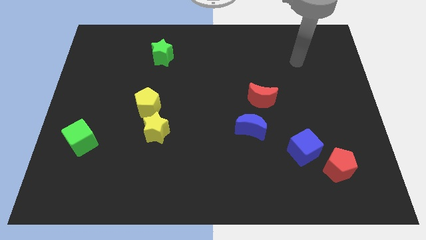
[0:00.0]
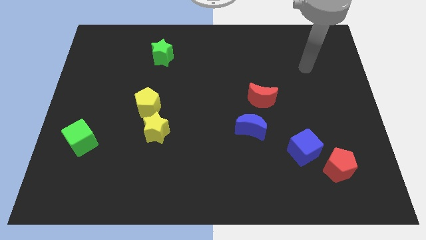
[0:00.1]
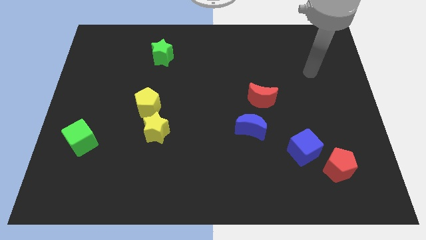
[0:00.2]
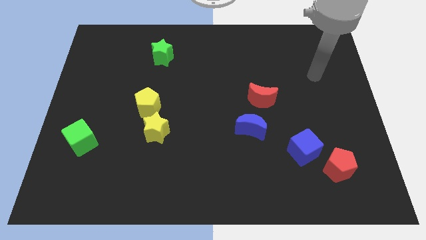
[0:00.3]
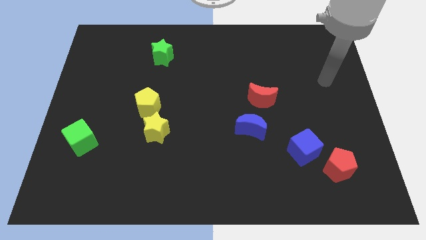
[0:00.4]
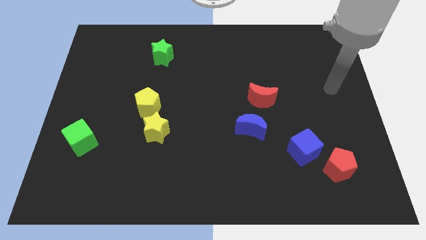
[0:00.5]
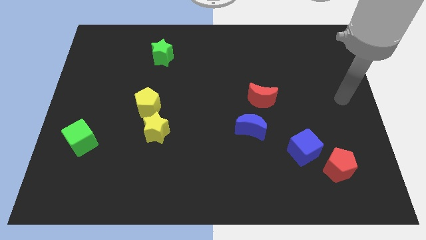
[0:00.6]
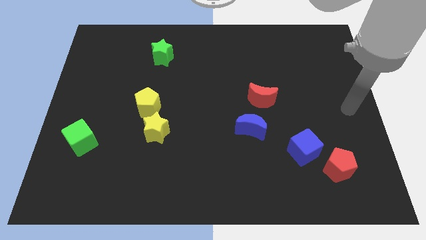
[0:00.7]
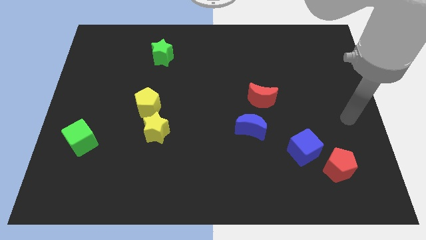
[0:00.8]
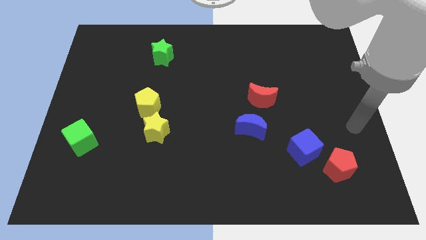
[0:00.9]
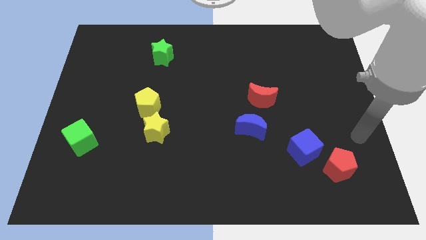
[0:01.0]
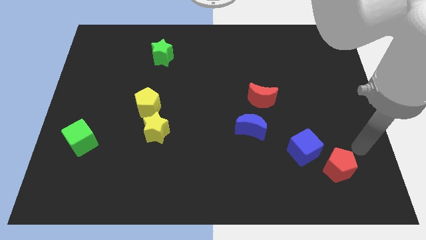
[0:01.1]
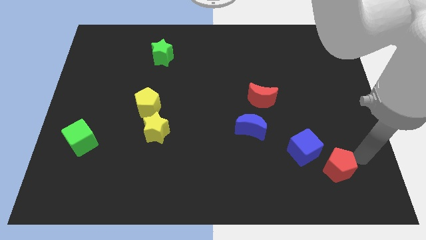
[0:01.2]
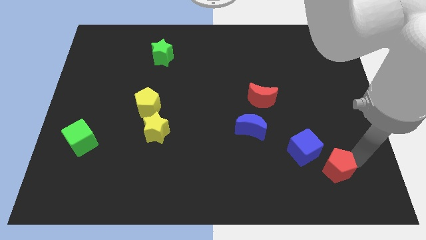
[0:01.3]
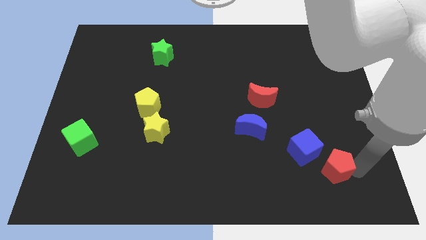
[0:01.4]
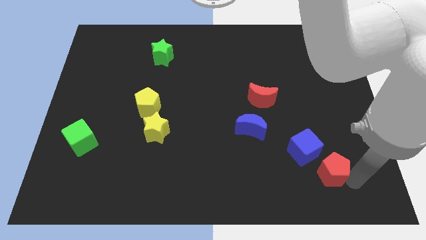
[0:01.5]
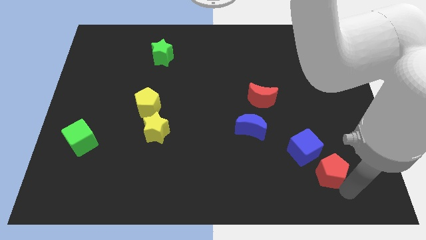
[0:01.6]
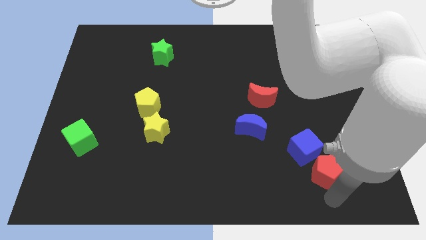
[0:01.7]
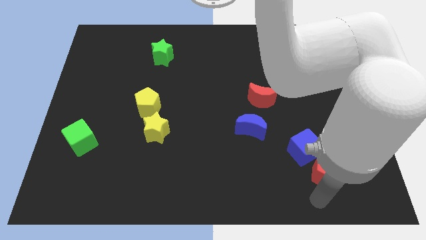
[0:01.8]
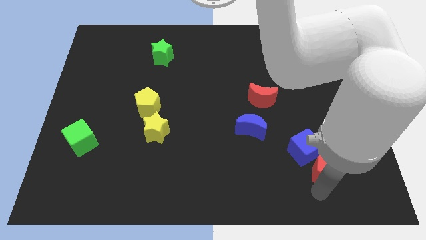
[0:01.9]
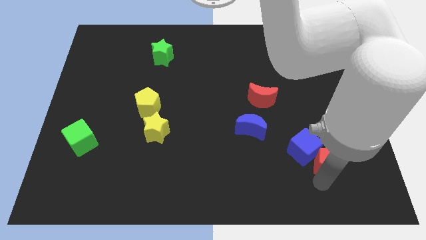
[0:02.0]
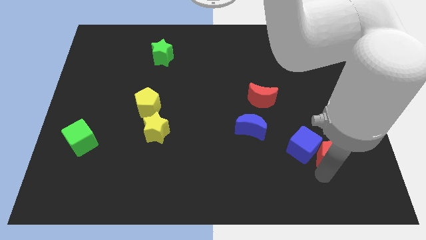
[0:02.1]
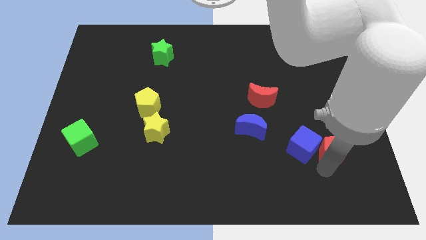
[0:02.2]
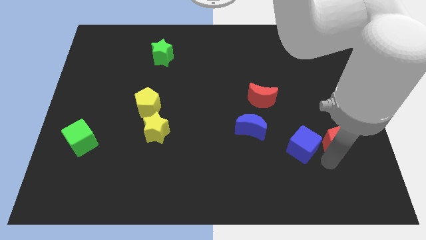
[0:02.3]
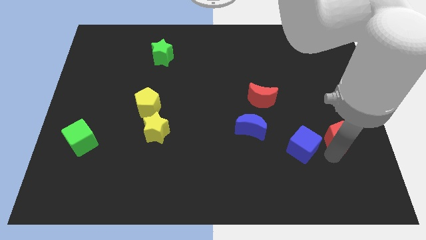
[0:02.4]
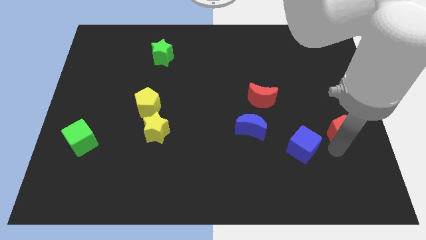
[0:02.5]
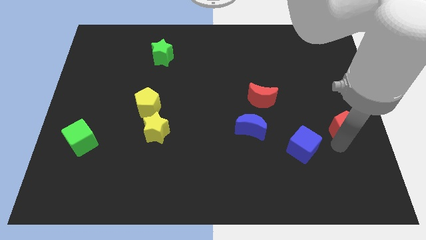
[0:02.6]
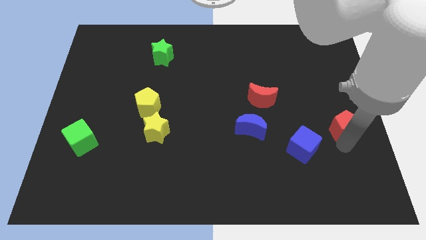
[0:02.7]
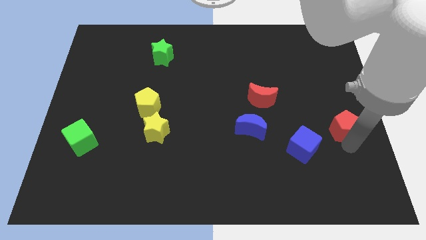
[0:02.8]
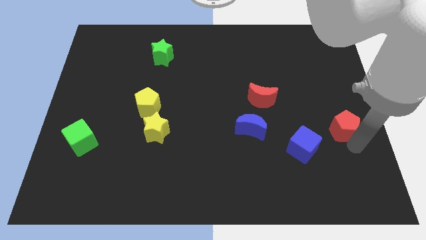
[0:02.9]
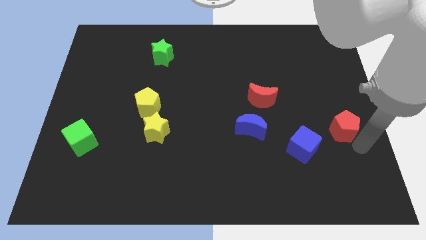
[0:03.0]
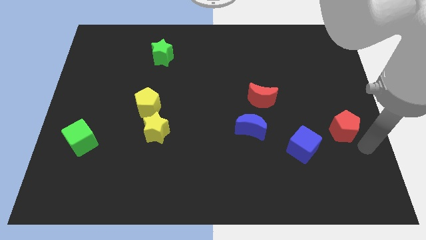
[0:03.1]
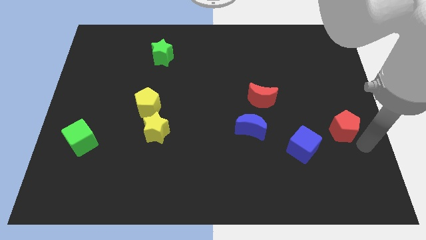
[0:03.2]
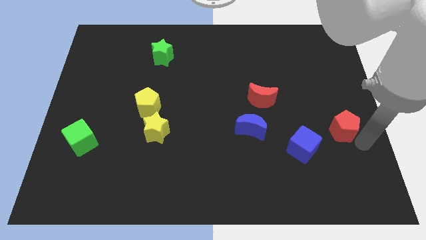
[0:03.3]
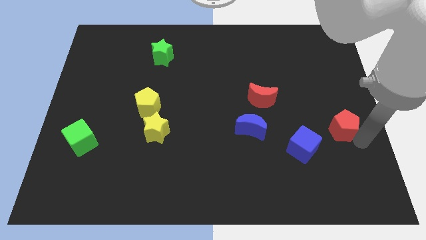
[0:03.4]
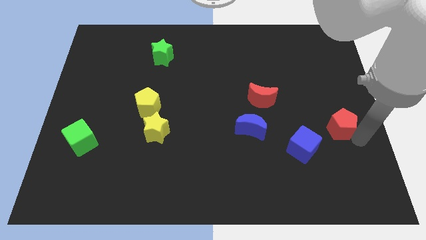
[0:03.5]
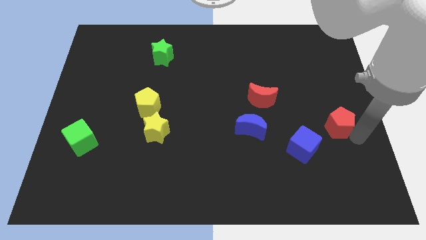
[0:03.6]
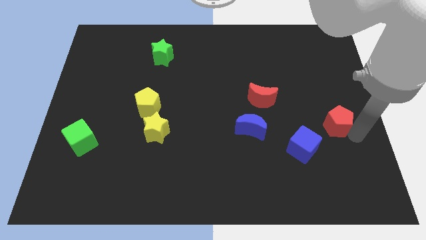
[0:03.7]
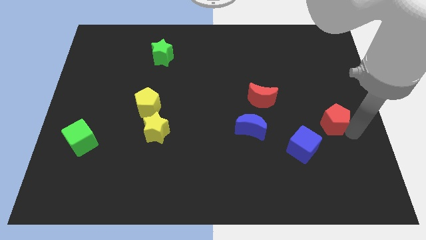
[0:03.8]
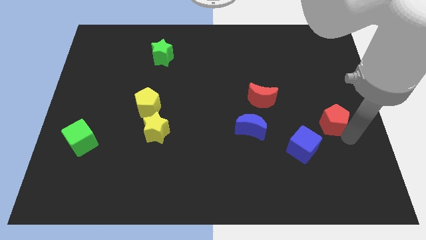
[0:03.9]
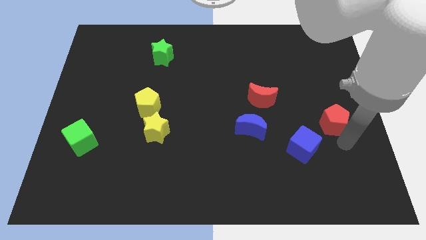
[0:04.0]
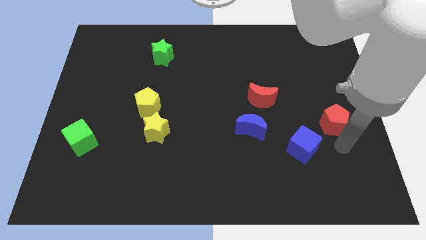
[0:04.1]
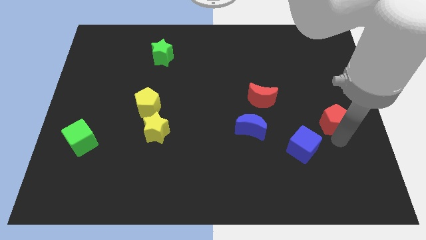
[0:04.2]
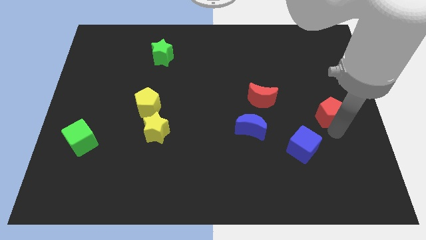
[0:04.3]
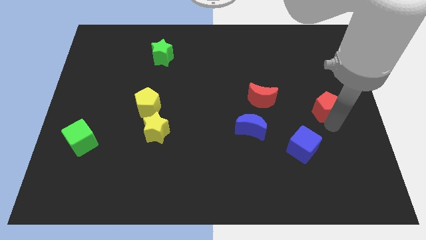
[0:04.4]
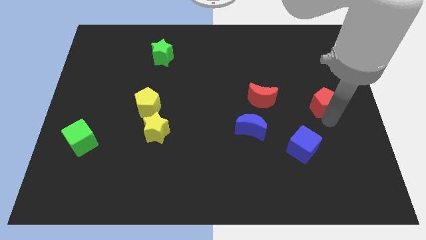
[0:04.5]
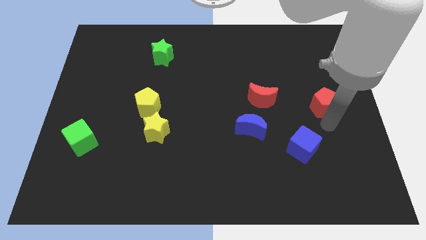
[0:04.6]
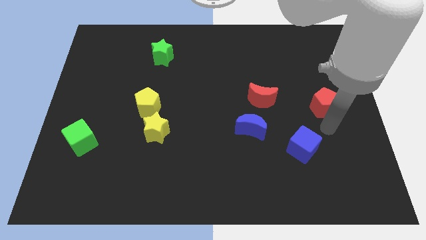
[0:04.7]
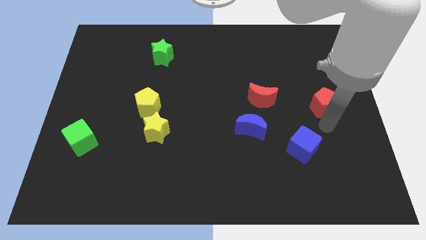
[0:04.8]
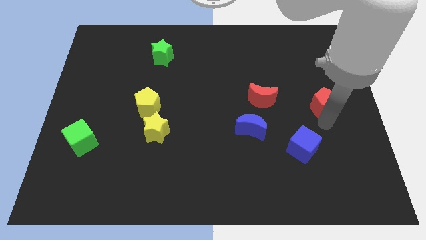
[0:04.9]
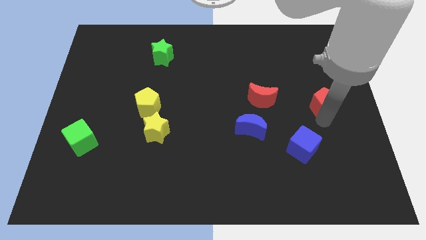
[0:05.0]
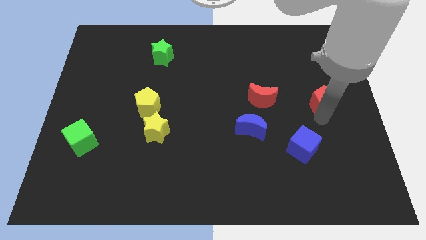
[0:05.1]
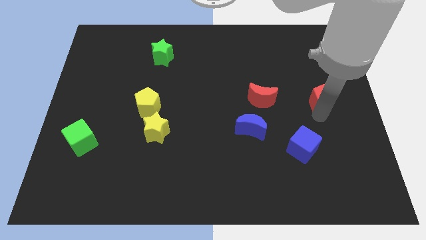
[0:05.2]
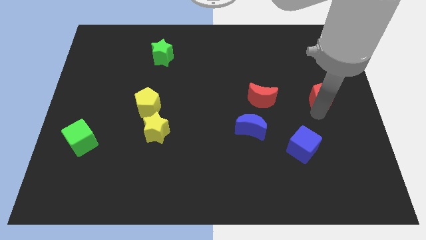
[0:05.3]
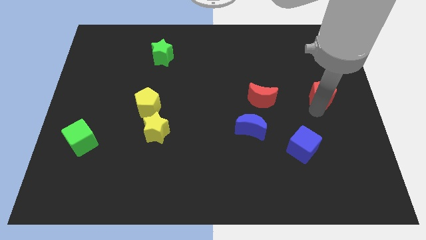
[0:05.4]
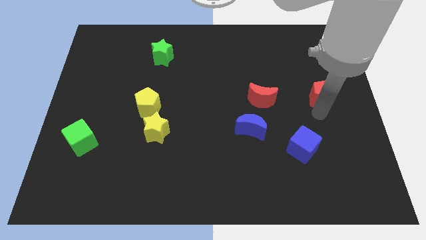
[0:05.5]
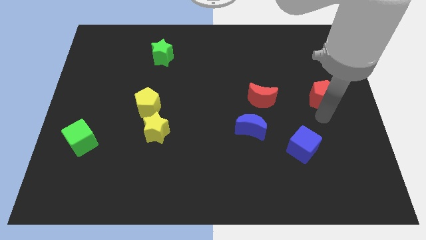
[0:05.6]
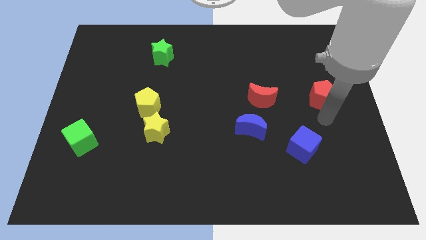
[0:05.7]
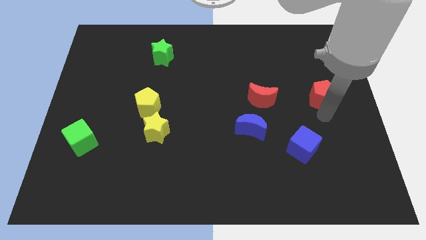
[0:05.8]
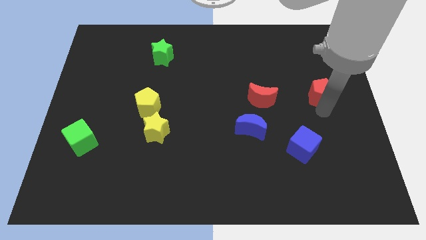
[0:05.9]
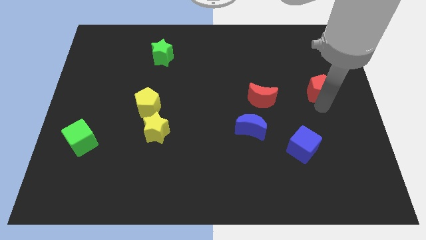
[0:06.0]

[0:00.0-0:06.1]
push the red pentagon upwards

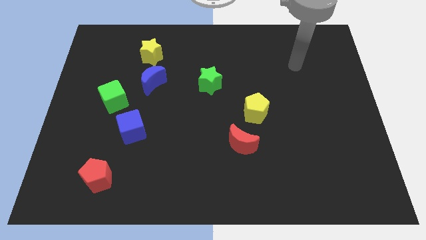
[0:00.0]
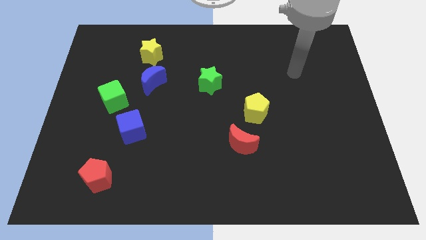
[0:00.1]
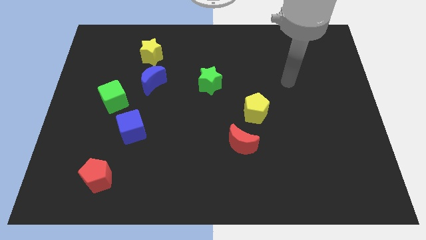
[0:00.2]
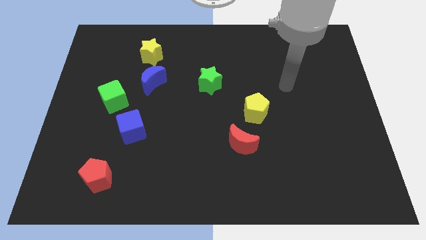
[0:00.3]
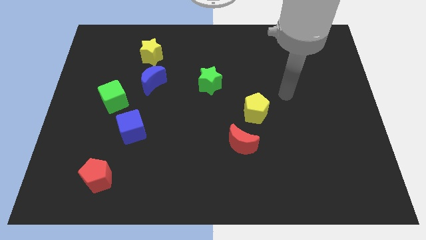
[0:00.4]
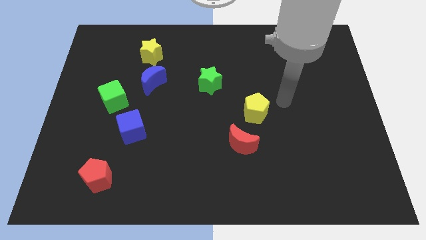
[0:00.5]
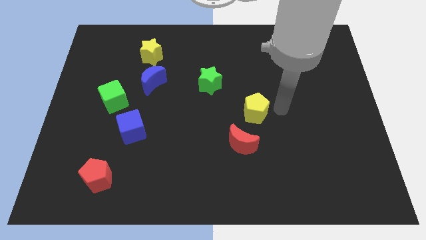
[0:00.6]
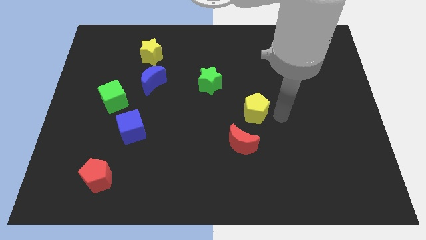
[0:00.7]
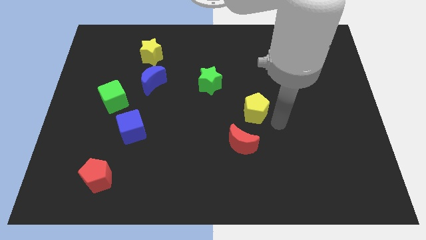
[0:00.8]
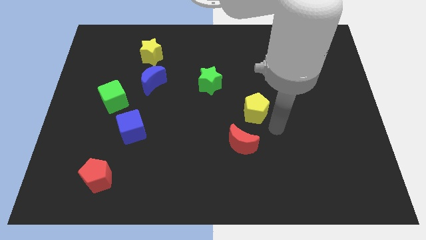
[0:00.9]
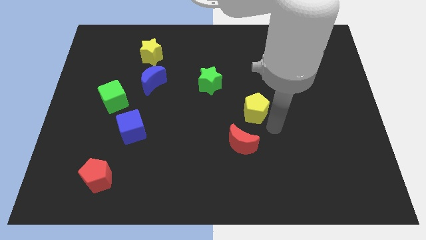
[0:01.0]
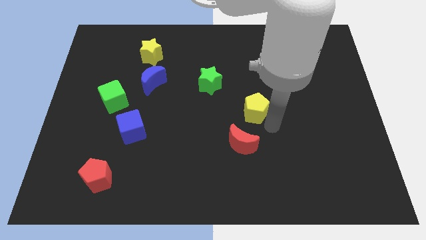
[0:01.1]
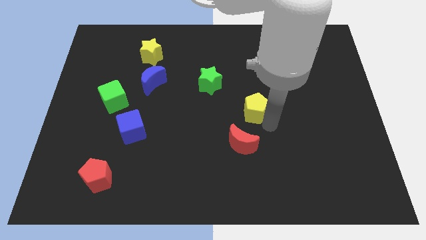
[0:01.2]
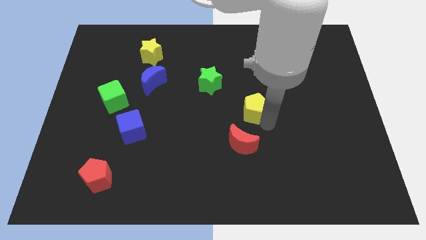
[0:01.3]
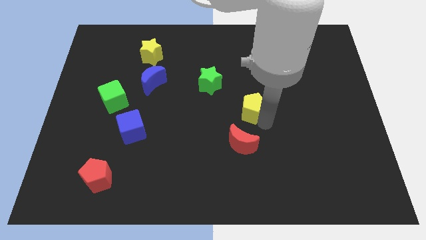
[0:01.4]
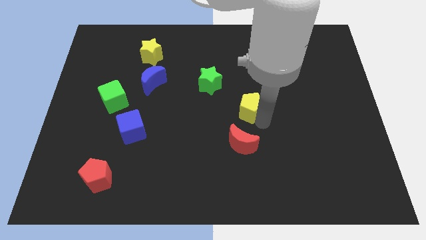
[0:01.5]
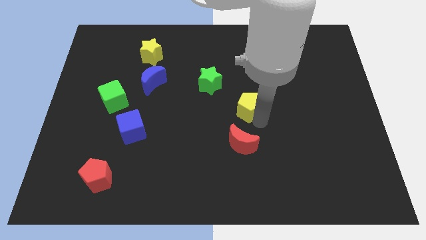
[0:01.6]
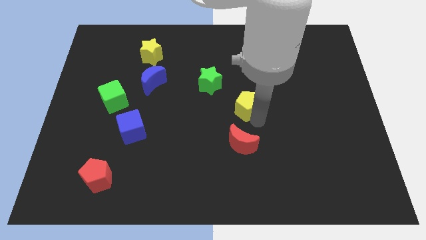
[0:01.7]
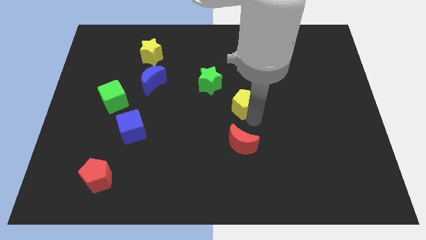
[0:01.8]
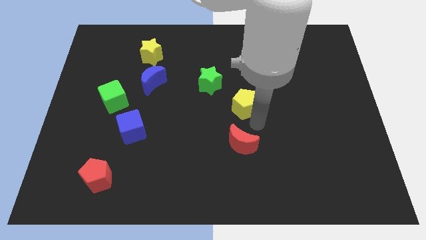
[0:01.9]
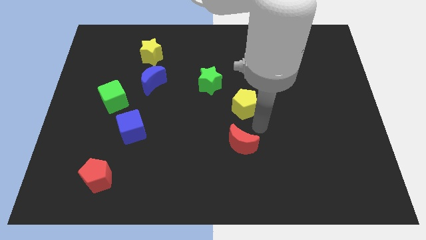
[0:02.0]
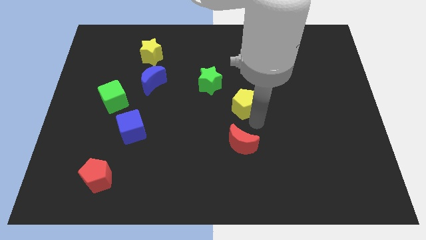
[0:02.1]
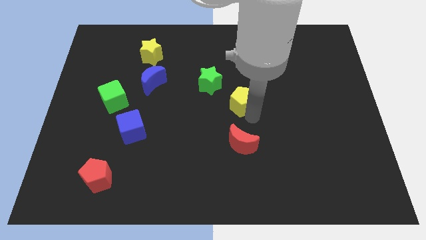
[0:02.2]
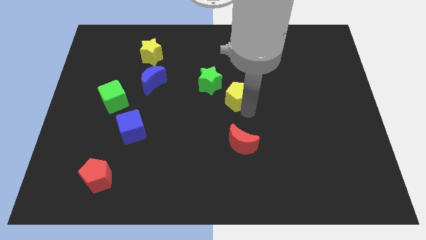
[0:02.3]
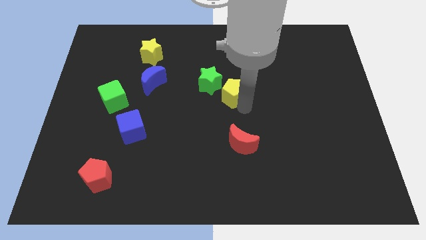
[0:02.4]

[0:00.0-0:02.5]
slightly move the yellow pentagon diagonally up and to the left
